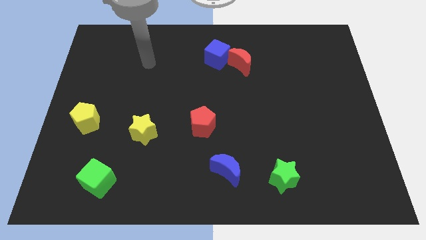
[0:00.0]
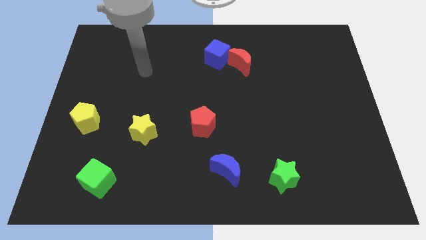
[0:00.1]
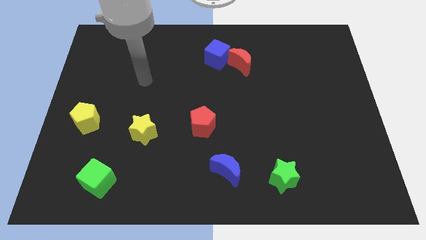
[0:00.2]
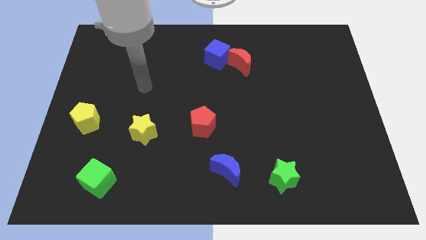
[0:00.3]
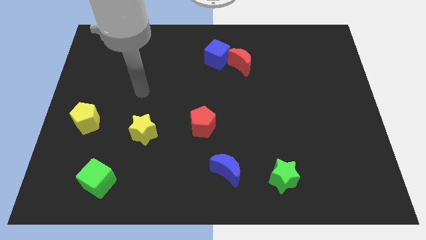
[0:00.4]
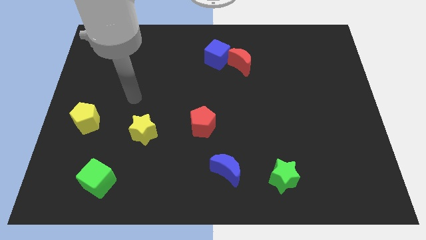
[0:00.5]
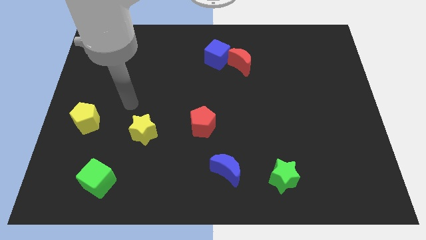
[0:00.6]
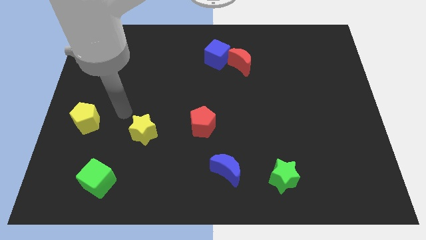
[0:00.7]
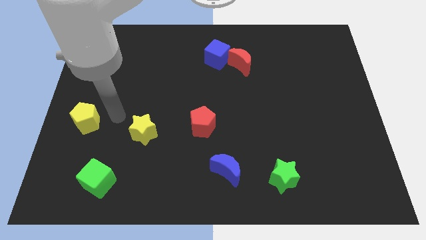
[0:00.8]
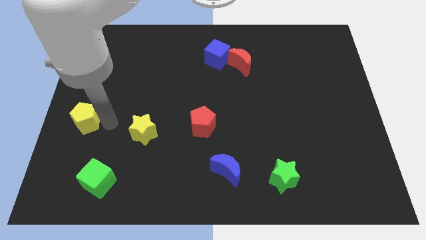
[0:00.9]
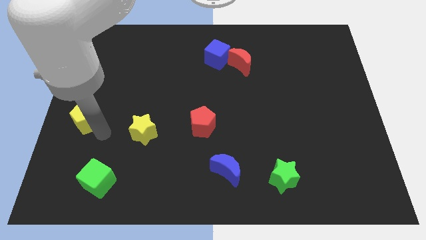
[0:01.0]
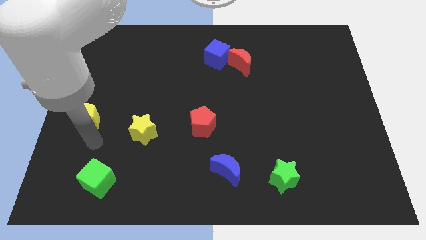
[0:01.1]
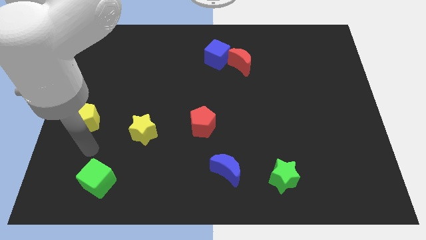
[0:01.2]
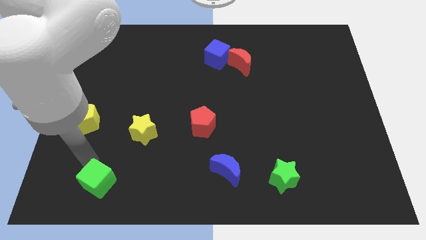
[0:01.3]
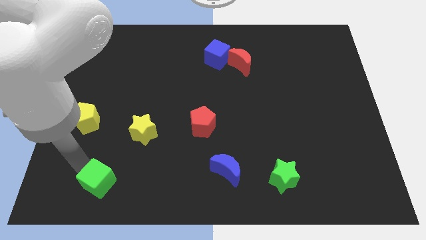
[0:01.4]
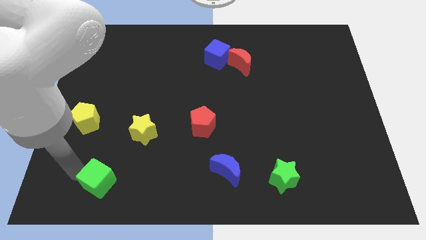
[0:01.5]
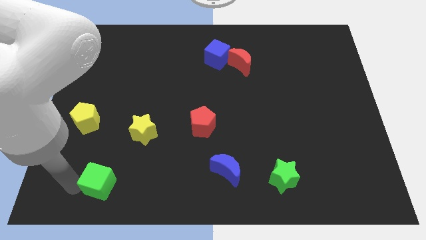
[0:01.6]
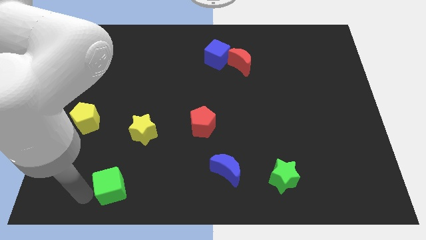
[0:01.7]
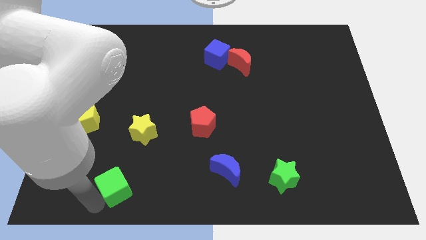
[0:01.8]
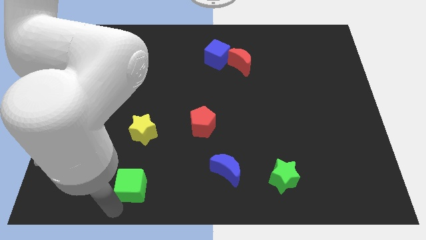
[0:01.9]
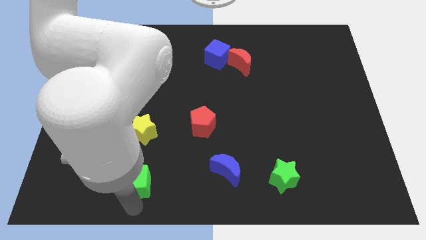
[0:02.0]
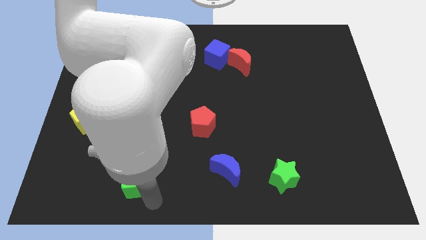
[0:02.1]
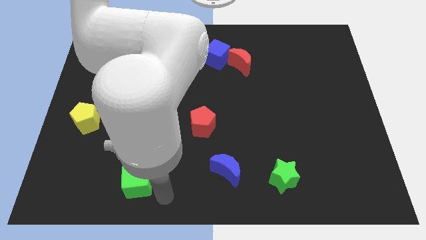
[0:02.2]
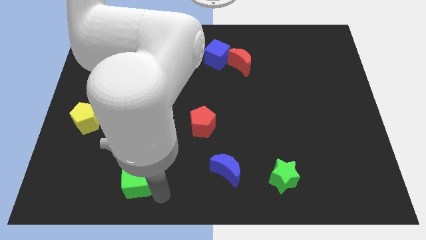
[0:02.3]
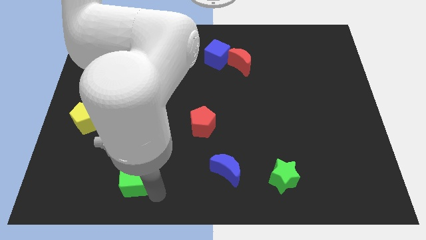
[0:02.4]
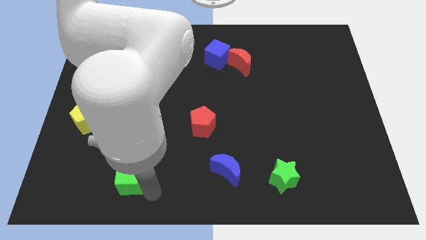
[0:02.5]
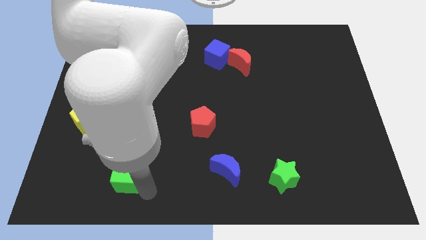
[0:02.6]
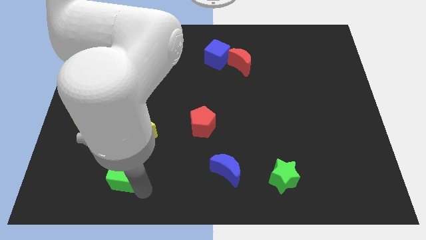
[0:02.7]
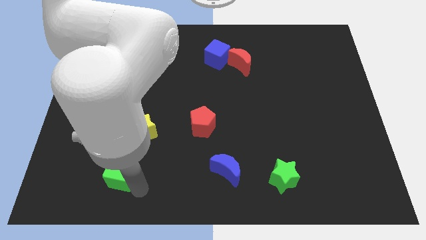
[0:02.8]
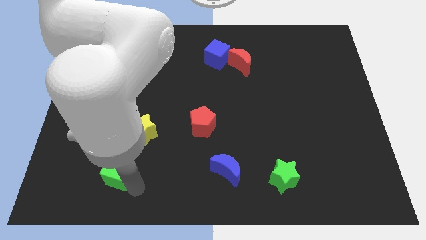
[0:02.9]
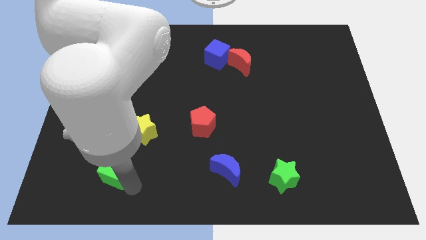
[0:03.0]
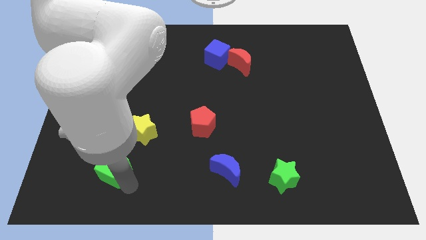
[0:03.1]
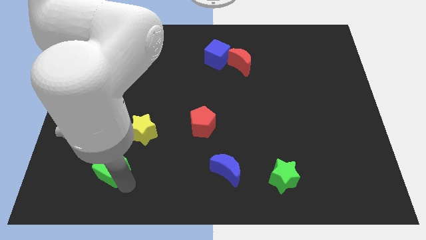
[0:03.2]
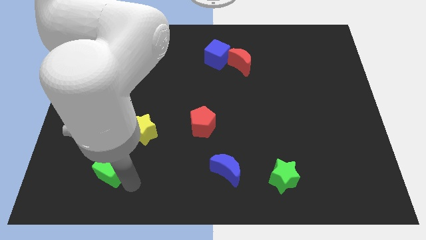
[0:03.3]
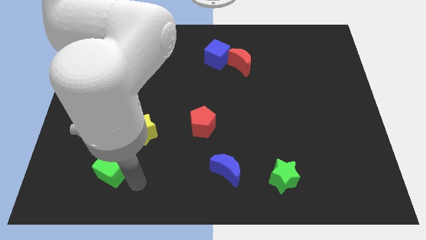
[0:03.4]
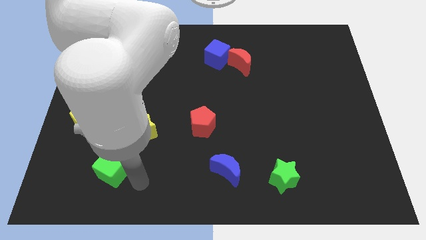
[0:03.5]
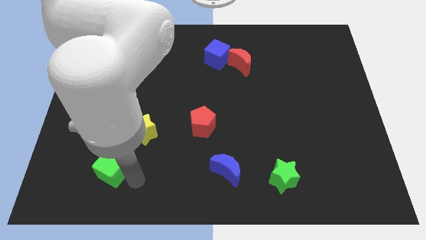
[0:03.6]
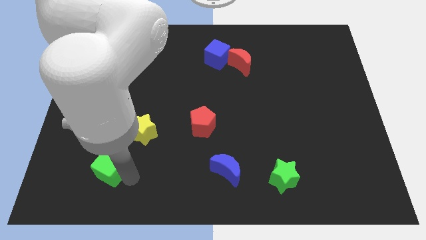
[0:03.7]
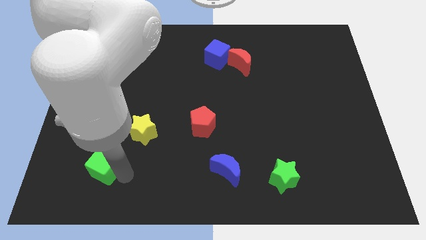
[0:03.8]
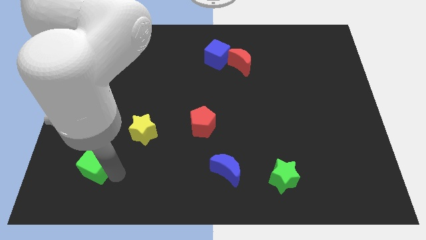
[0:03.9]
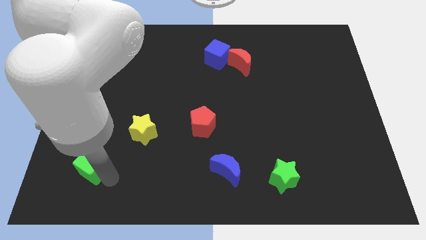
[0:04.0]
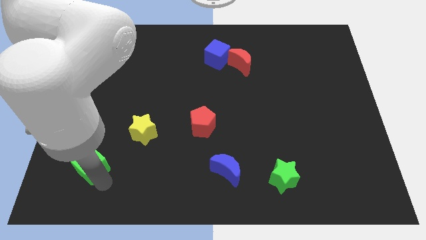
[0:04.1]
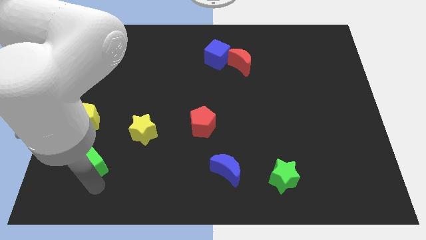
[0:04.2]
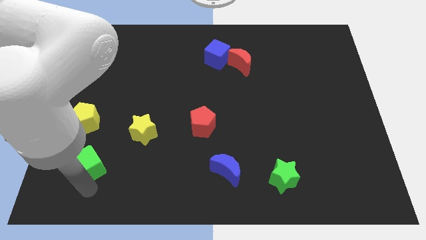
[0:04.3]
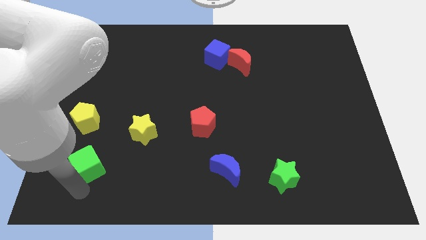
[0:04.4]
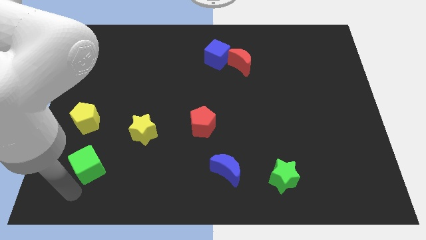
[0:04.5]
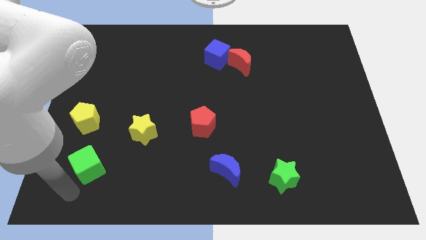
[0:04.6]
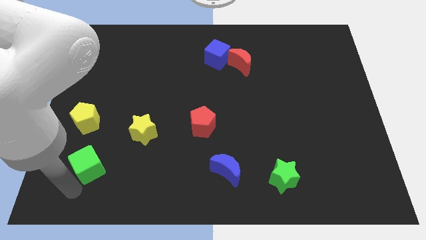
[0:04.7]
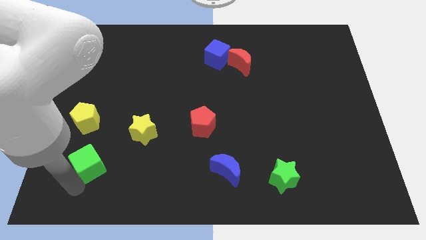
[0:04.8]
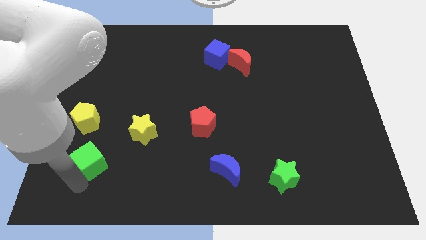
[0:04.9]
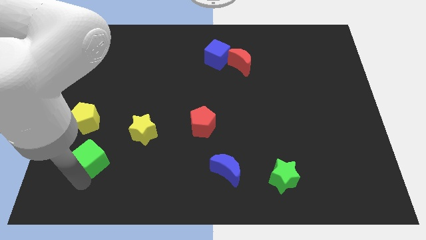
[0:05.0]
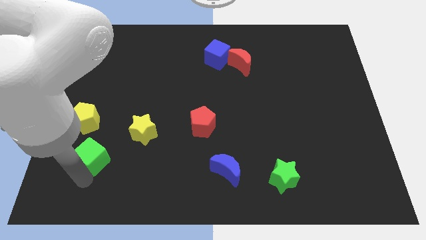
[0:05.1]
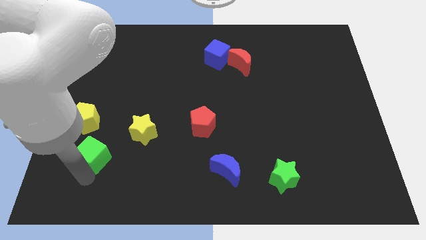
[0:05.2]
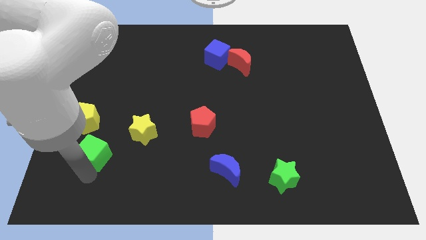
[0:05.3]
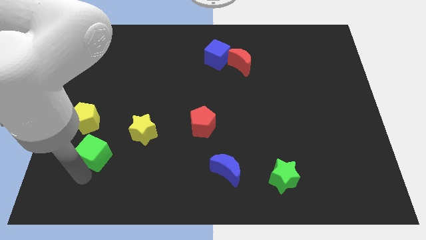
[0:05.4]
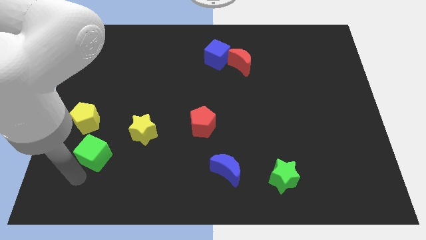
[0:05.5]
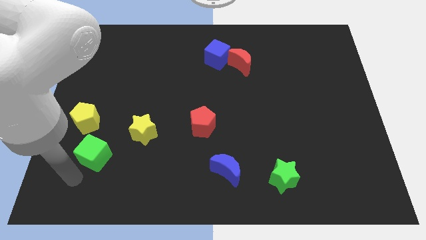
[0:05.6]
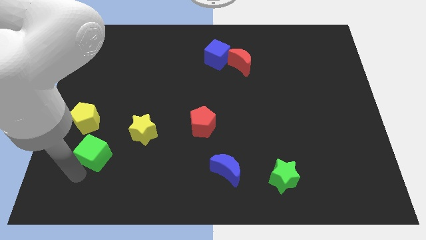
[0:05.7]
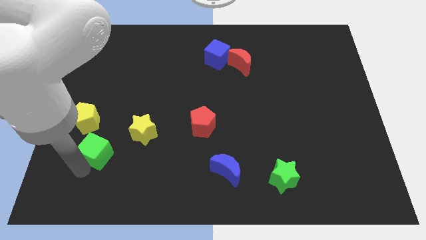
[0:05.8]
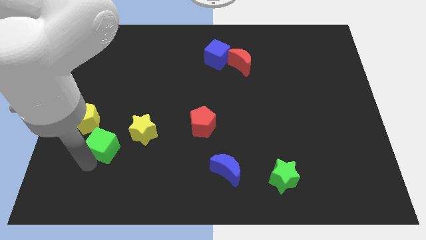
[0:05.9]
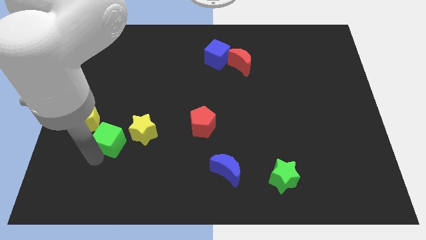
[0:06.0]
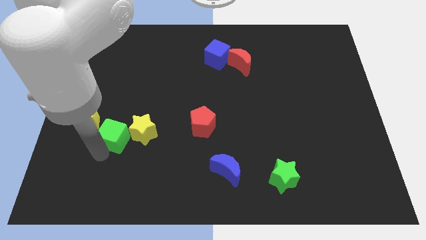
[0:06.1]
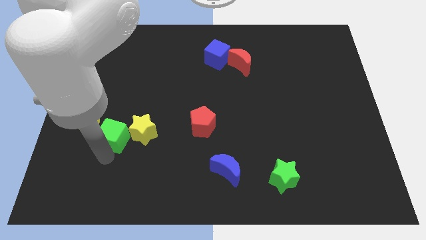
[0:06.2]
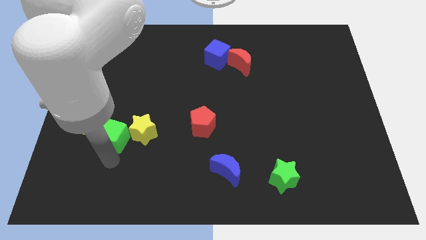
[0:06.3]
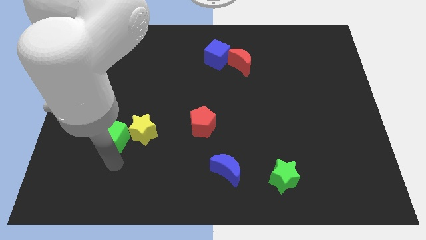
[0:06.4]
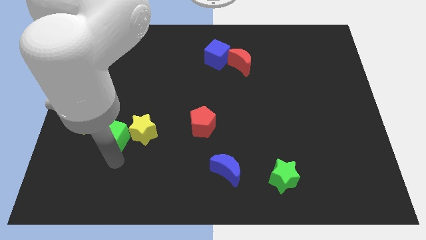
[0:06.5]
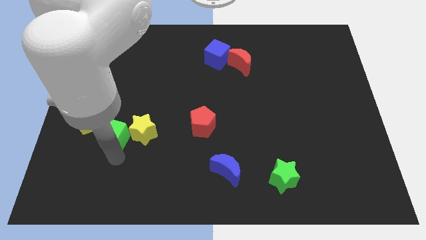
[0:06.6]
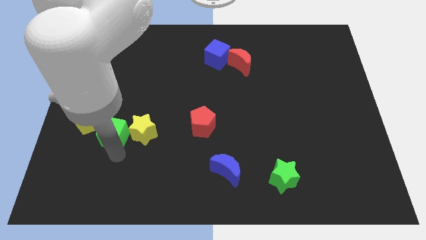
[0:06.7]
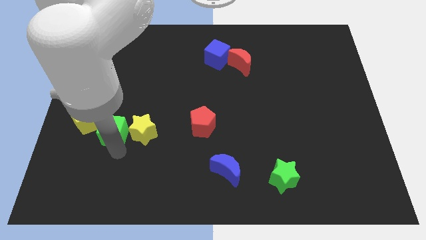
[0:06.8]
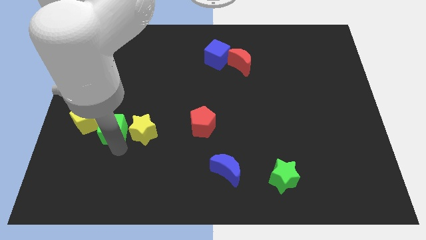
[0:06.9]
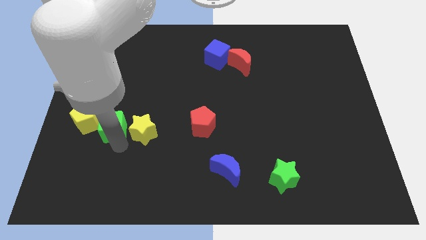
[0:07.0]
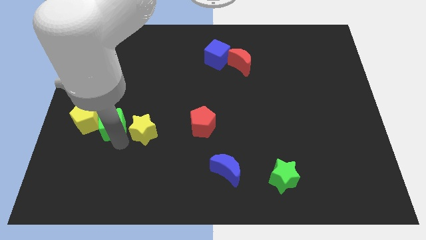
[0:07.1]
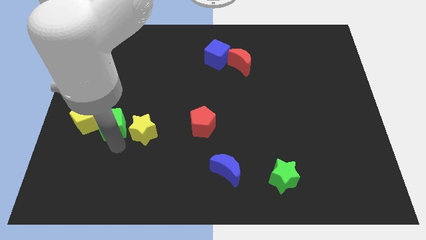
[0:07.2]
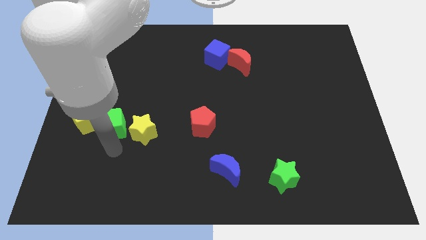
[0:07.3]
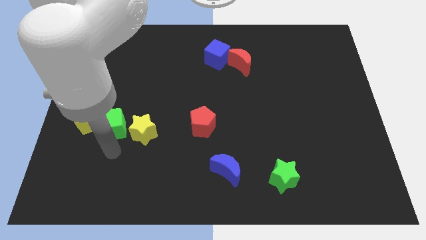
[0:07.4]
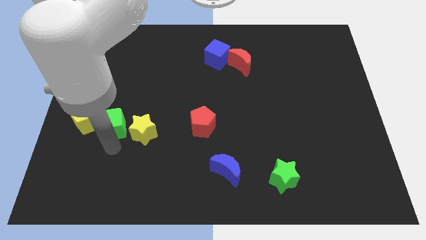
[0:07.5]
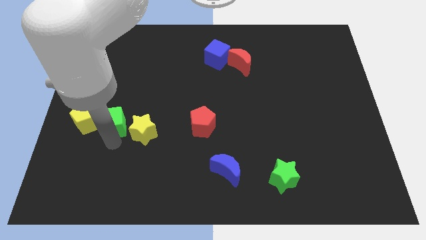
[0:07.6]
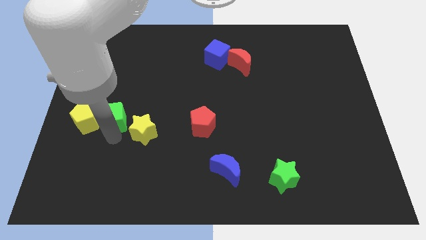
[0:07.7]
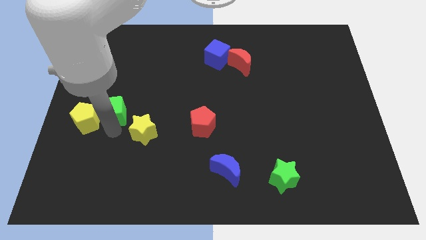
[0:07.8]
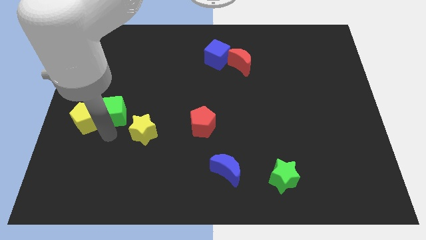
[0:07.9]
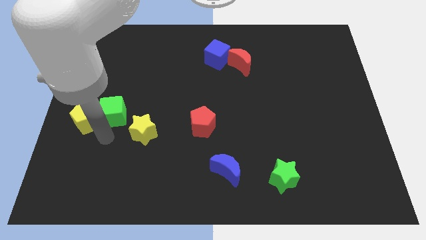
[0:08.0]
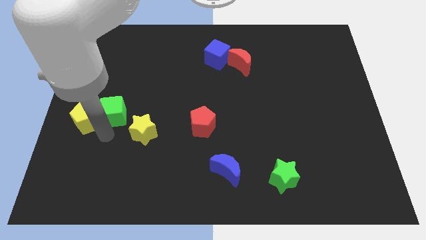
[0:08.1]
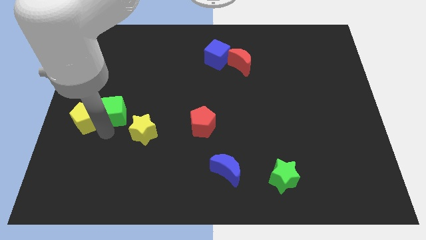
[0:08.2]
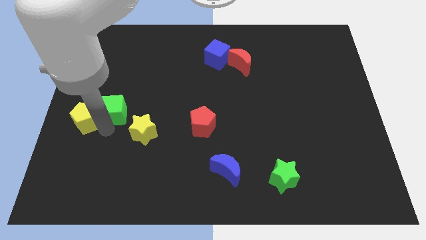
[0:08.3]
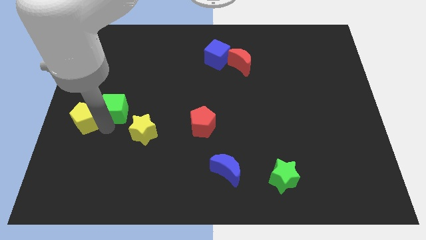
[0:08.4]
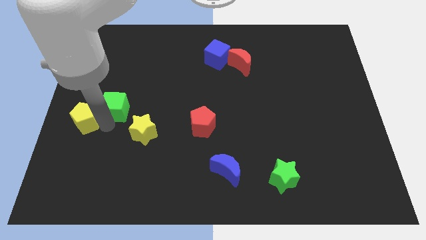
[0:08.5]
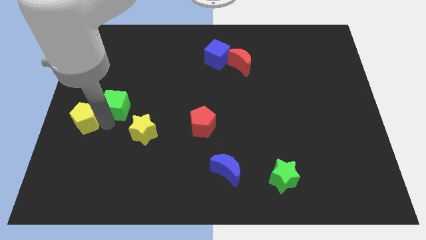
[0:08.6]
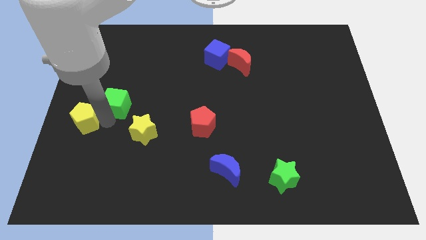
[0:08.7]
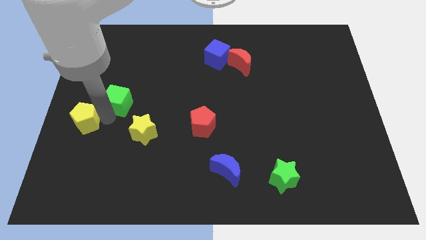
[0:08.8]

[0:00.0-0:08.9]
move the green cube upwards
